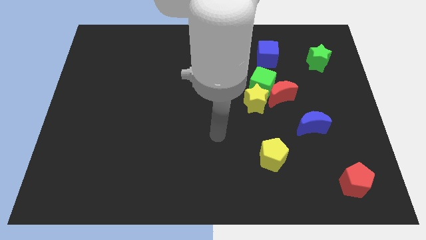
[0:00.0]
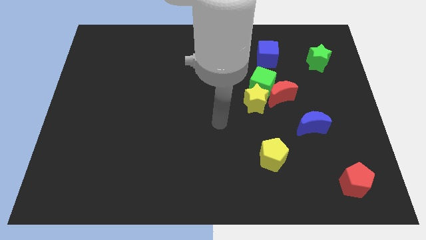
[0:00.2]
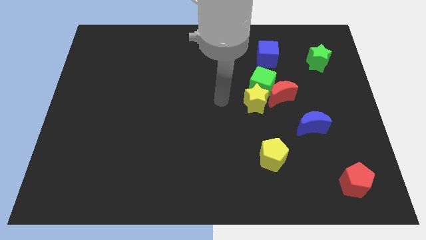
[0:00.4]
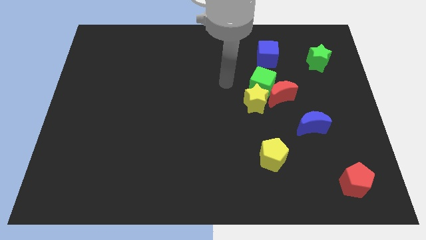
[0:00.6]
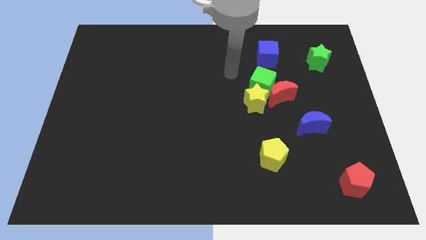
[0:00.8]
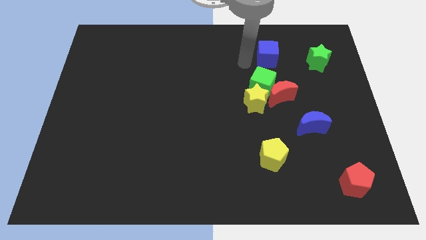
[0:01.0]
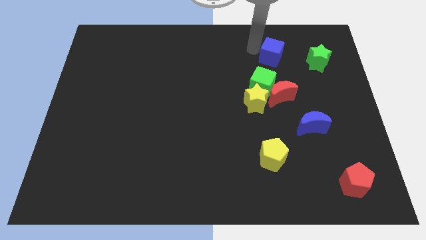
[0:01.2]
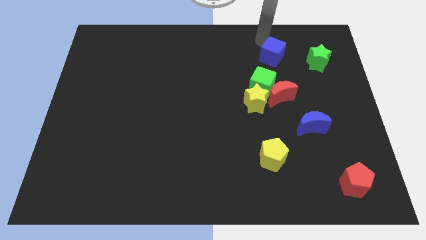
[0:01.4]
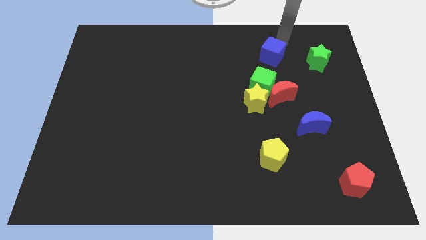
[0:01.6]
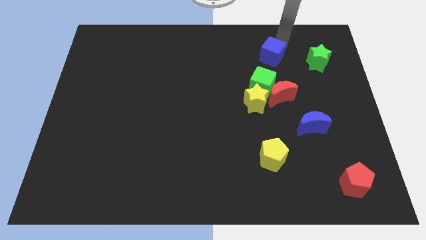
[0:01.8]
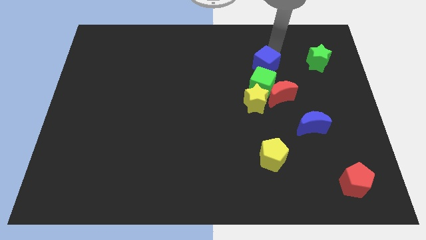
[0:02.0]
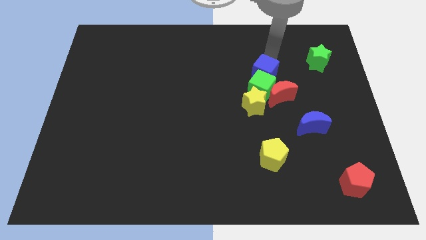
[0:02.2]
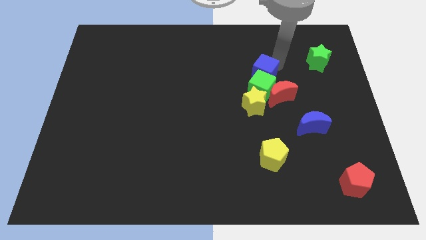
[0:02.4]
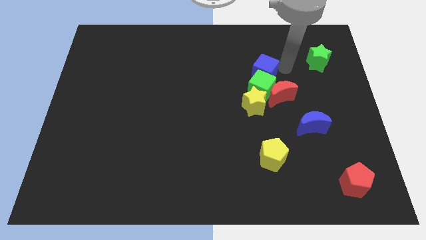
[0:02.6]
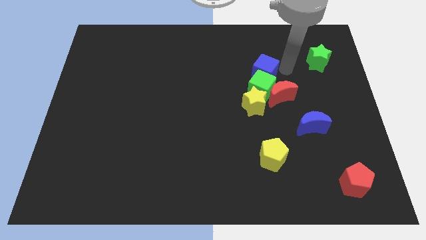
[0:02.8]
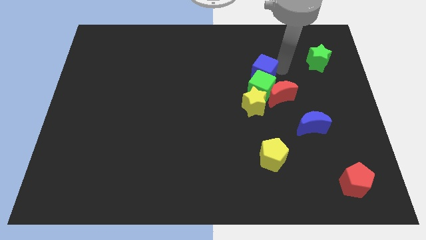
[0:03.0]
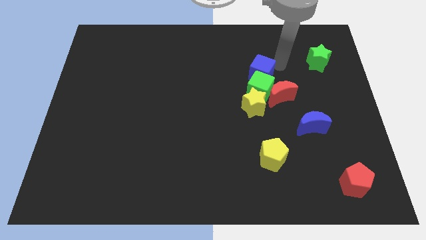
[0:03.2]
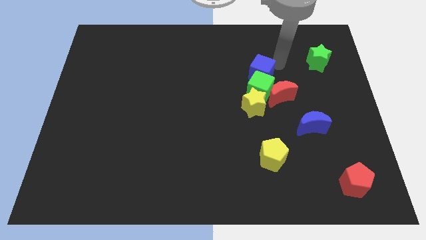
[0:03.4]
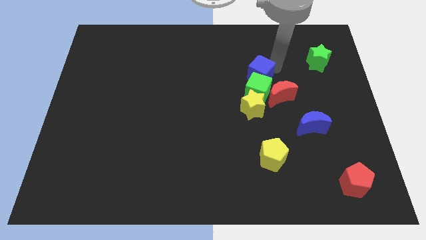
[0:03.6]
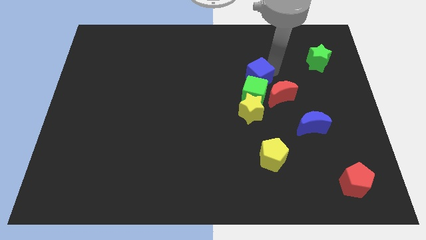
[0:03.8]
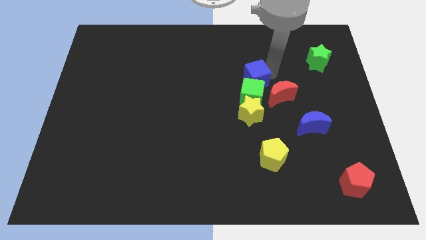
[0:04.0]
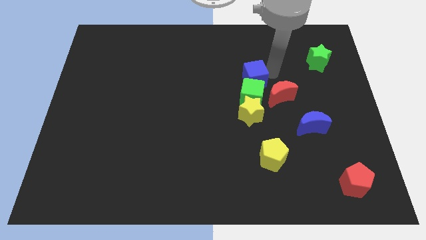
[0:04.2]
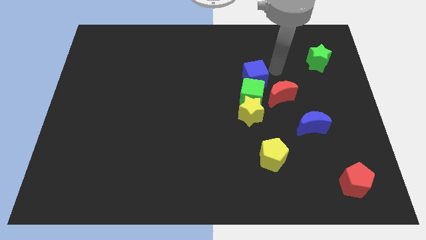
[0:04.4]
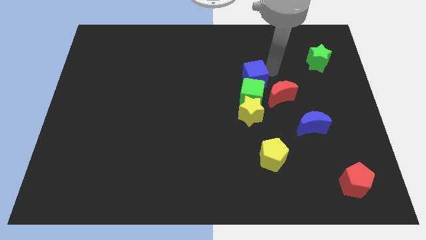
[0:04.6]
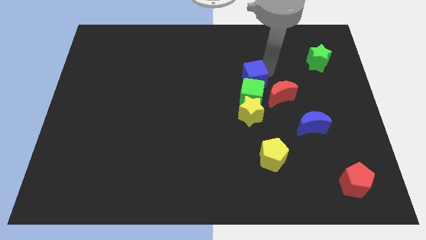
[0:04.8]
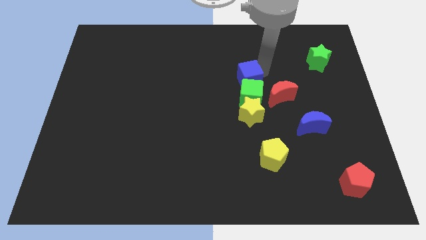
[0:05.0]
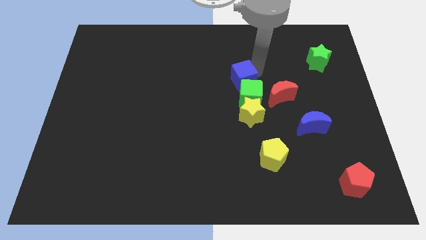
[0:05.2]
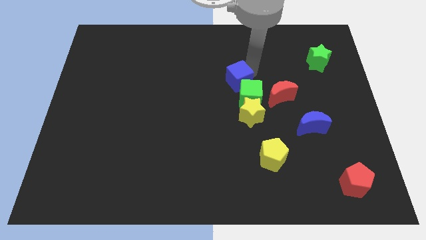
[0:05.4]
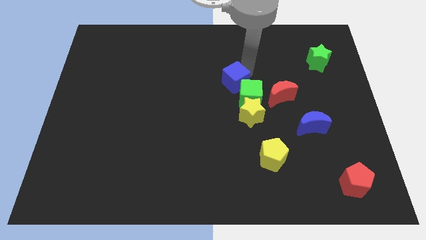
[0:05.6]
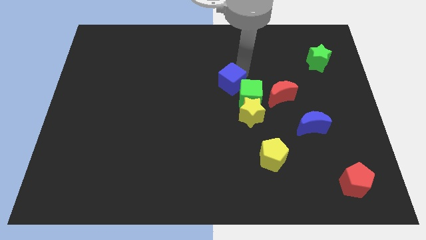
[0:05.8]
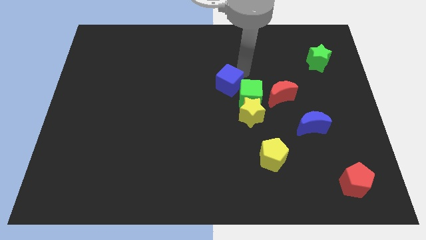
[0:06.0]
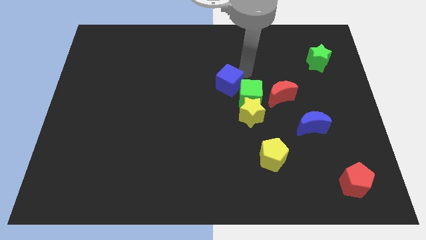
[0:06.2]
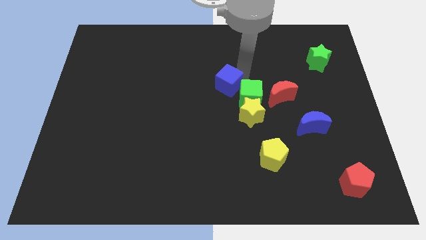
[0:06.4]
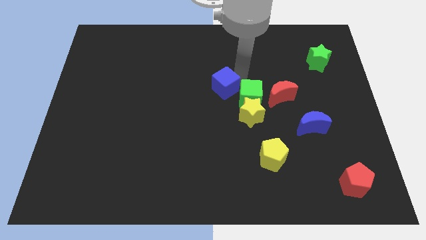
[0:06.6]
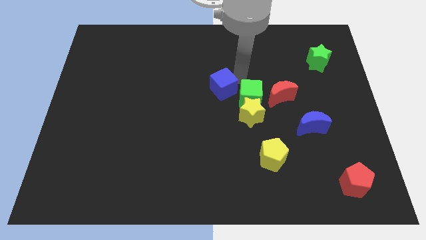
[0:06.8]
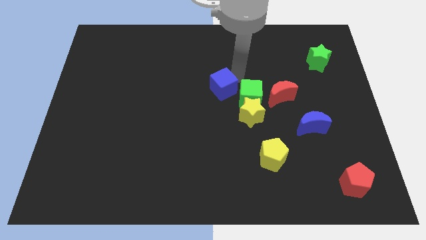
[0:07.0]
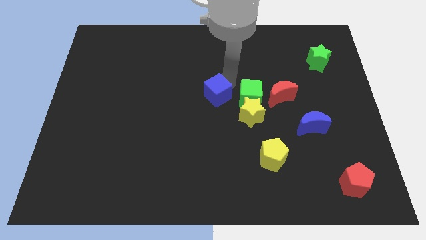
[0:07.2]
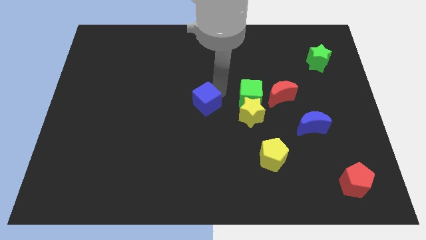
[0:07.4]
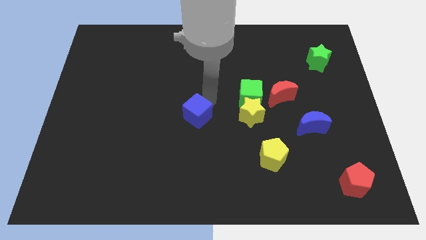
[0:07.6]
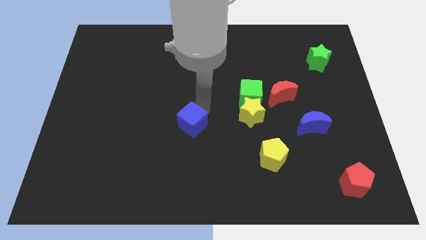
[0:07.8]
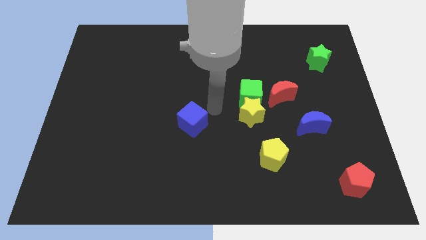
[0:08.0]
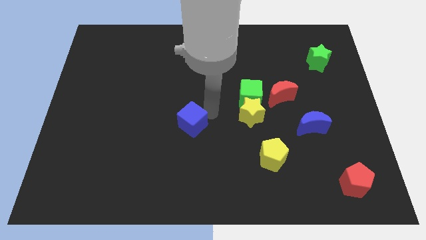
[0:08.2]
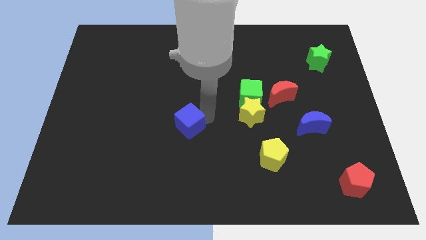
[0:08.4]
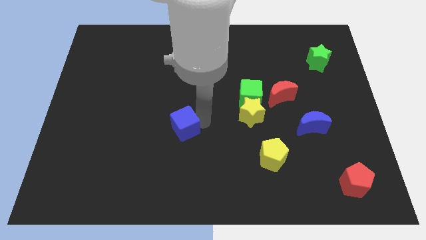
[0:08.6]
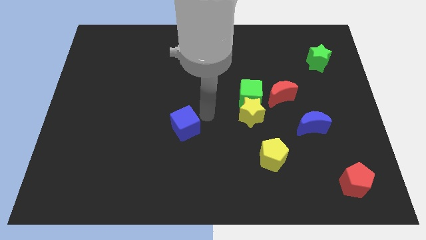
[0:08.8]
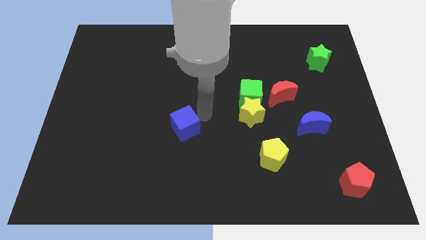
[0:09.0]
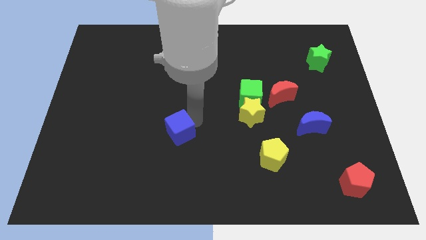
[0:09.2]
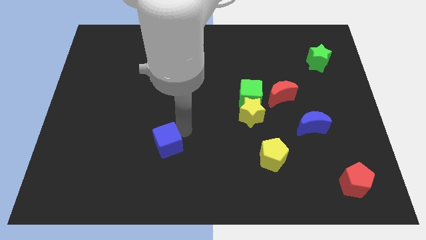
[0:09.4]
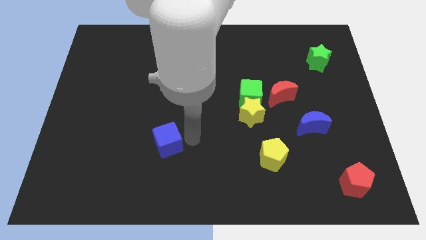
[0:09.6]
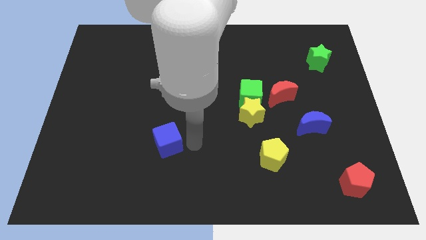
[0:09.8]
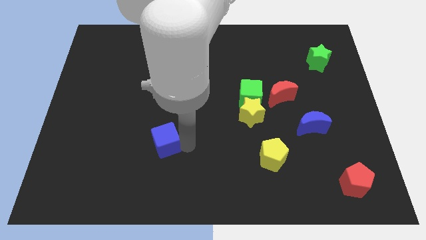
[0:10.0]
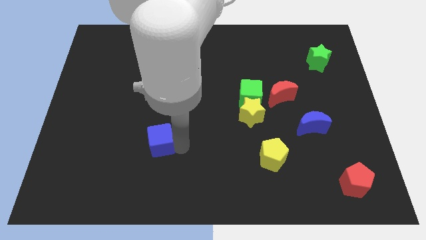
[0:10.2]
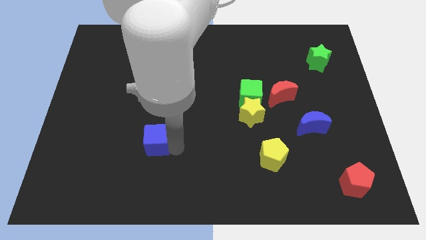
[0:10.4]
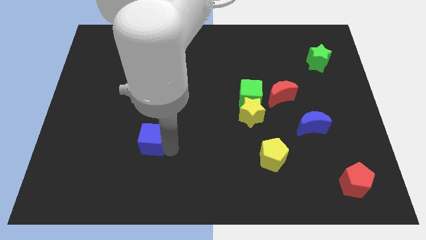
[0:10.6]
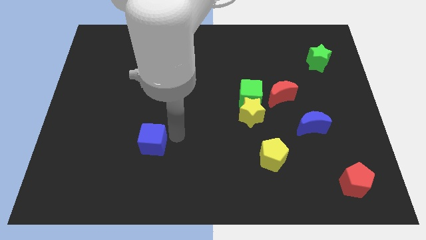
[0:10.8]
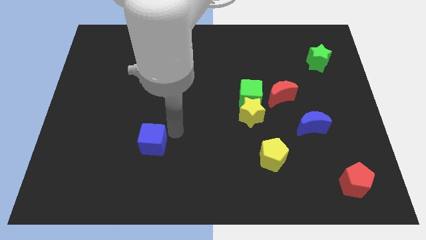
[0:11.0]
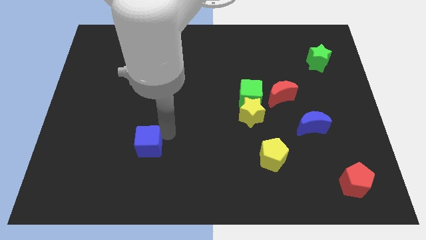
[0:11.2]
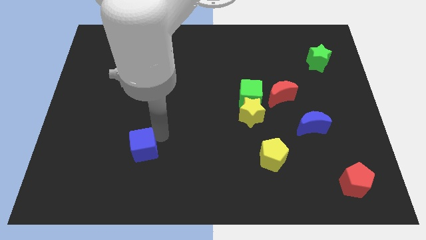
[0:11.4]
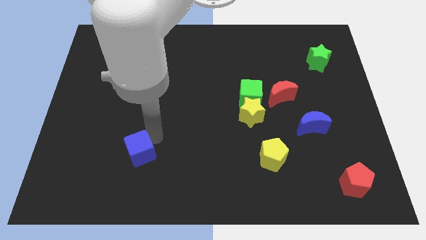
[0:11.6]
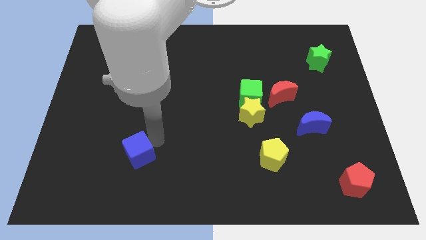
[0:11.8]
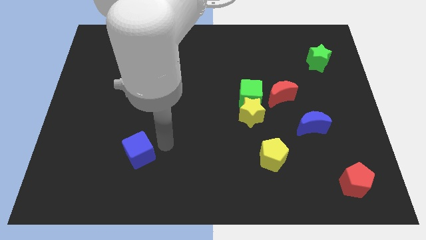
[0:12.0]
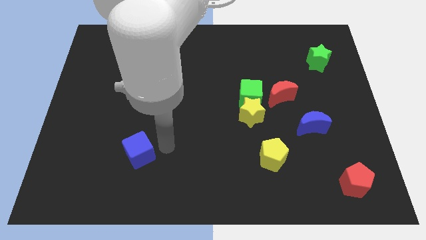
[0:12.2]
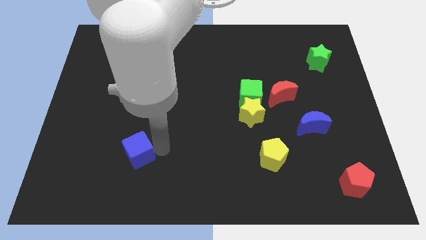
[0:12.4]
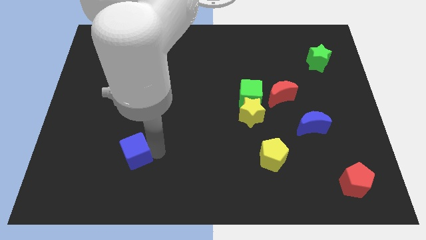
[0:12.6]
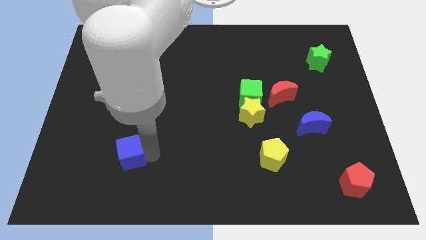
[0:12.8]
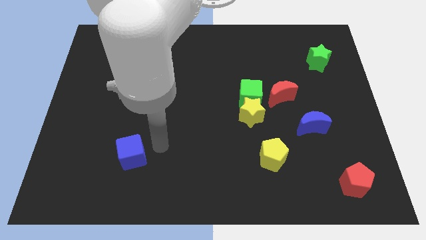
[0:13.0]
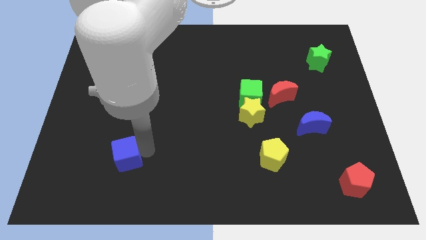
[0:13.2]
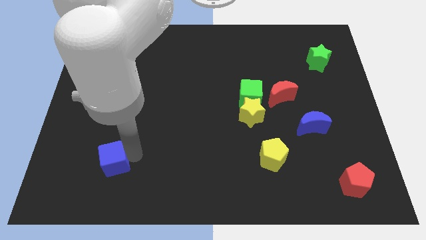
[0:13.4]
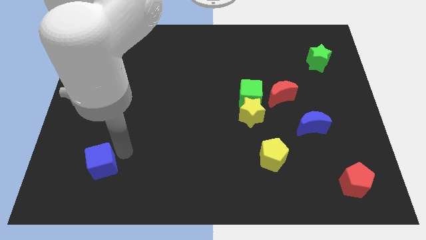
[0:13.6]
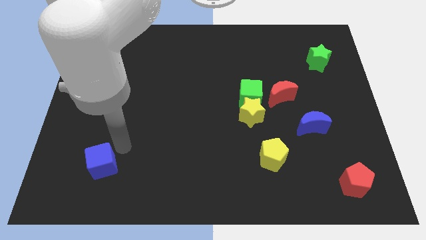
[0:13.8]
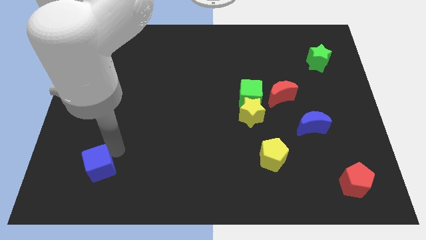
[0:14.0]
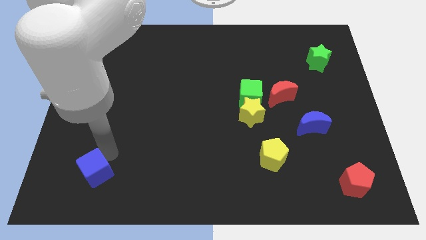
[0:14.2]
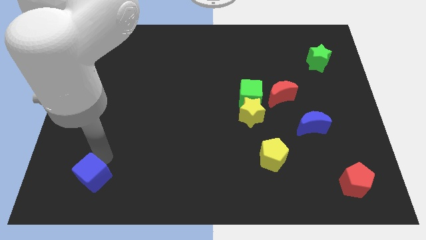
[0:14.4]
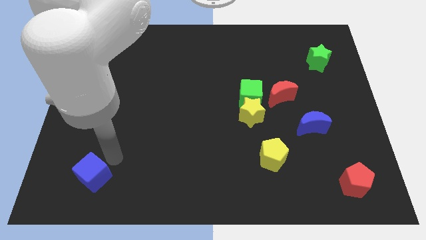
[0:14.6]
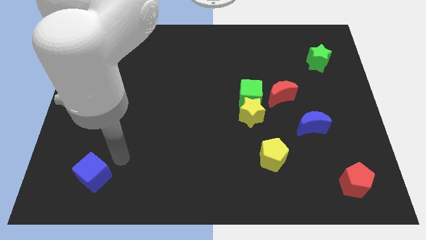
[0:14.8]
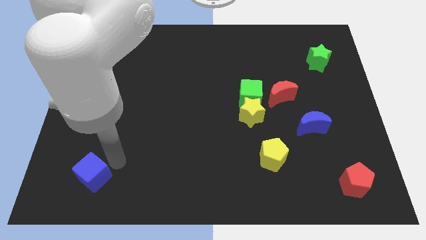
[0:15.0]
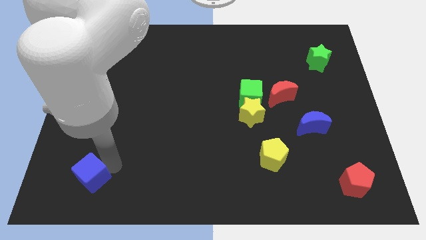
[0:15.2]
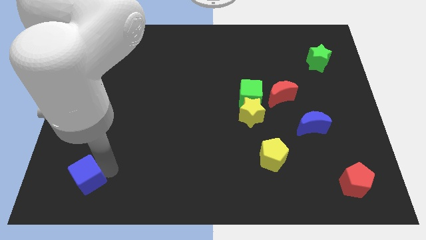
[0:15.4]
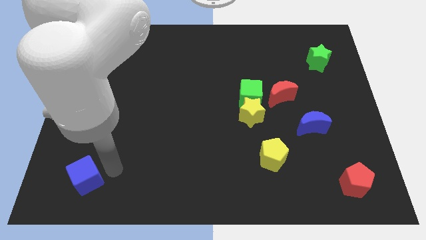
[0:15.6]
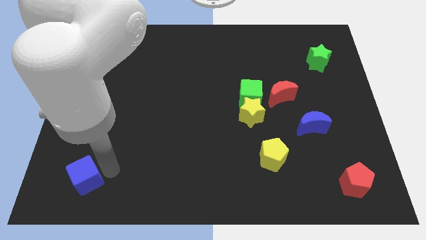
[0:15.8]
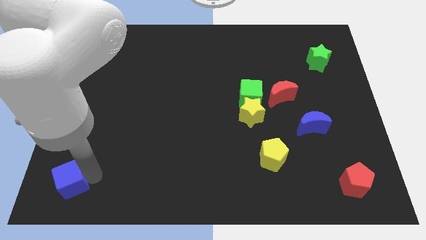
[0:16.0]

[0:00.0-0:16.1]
push the blue cube to the bottom left
